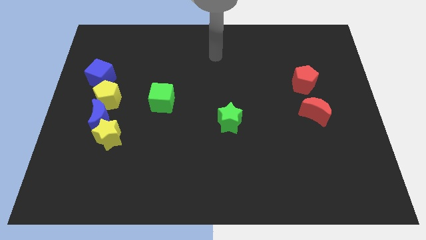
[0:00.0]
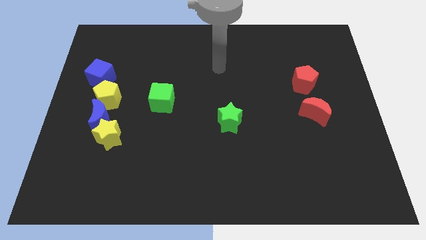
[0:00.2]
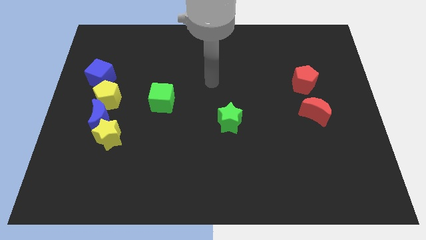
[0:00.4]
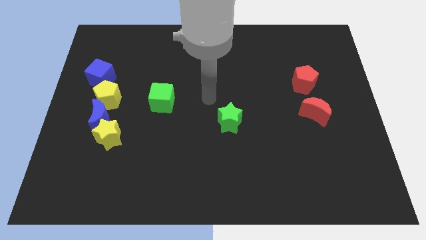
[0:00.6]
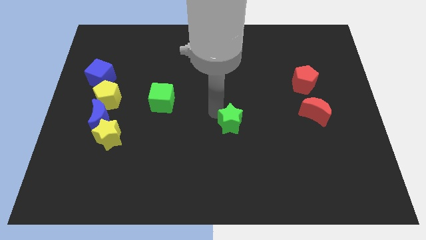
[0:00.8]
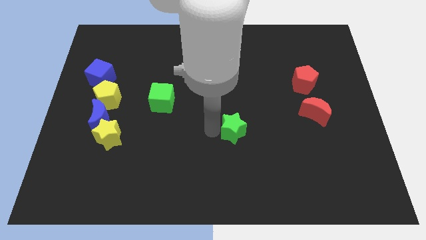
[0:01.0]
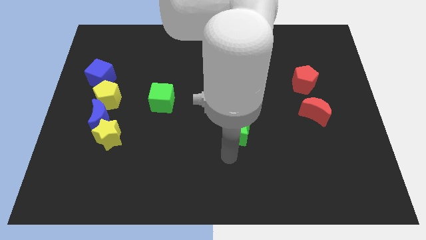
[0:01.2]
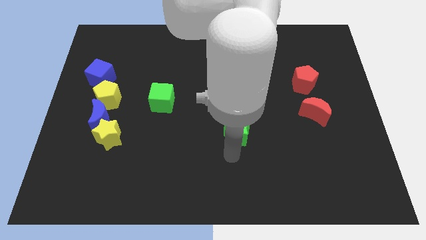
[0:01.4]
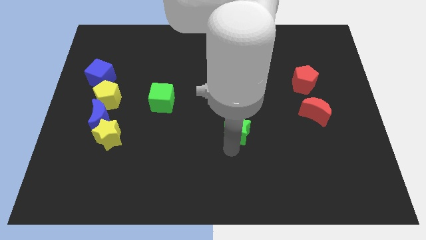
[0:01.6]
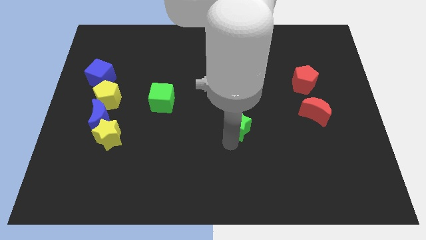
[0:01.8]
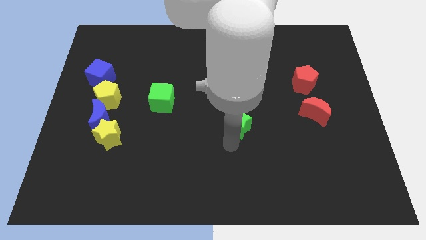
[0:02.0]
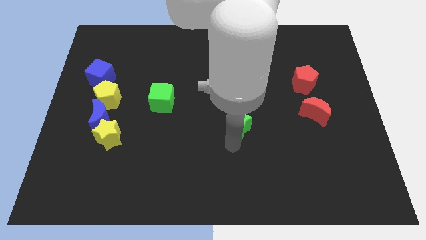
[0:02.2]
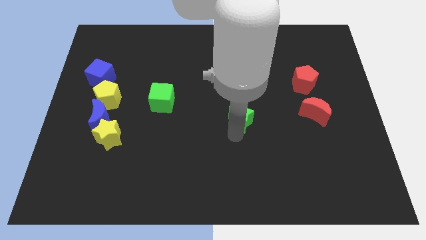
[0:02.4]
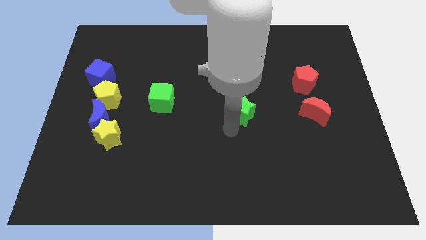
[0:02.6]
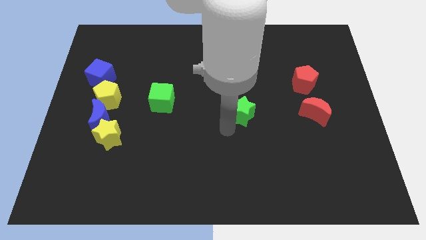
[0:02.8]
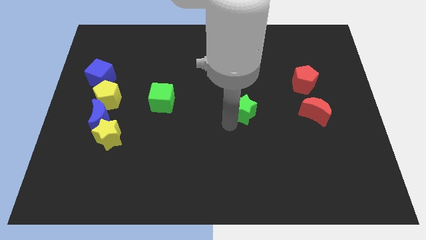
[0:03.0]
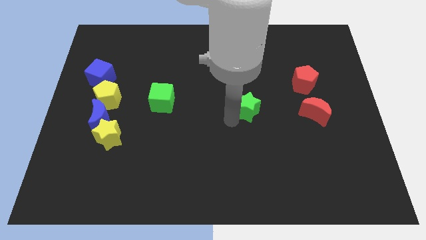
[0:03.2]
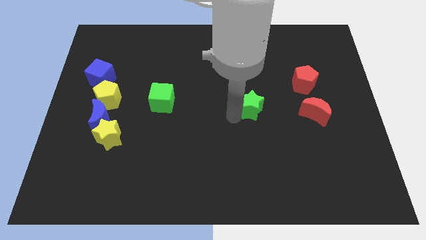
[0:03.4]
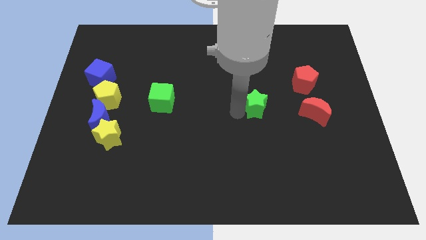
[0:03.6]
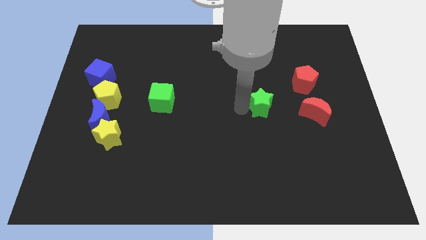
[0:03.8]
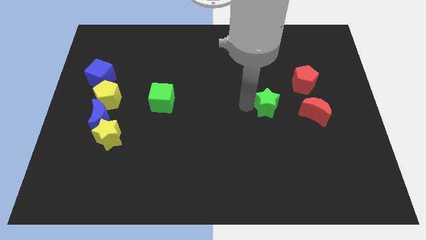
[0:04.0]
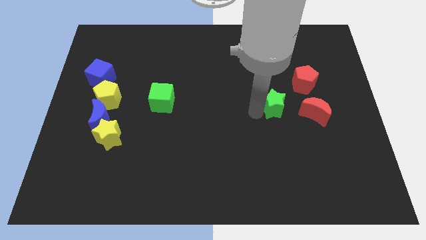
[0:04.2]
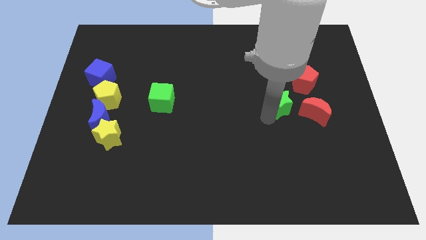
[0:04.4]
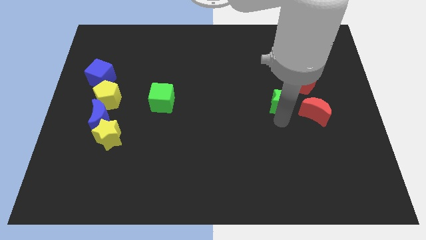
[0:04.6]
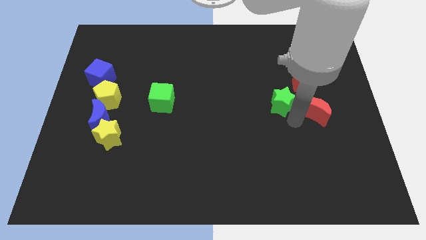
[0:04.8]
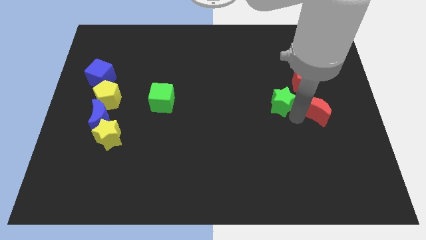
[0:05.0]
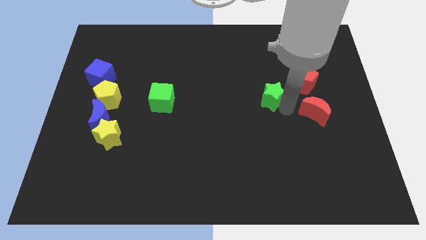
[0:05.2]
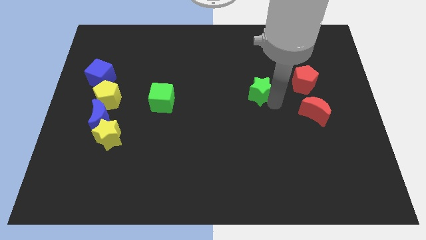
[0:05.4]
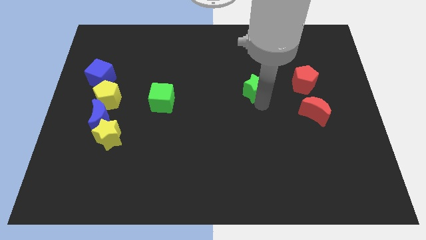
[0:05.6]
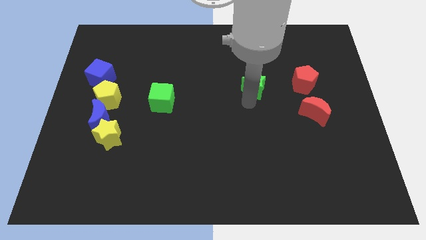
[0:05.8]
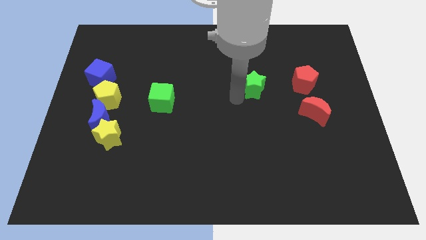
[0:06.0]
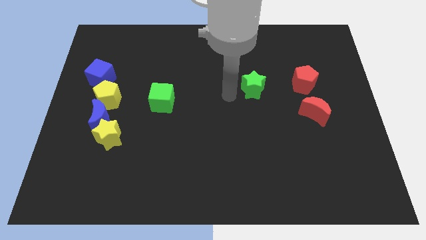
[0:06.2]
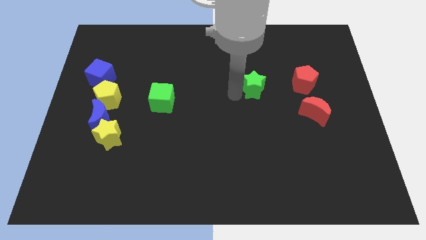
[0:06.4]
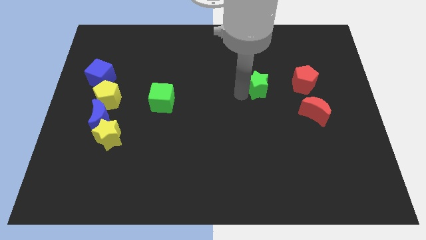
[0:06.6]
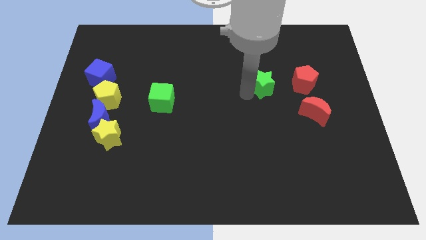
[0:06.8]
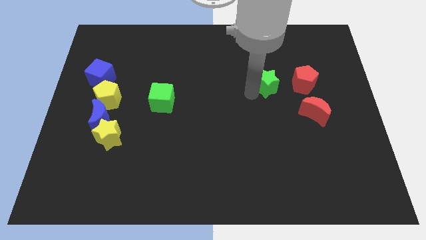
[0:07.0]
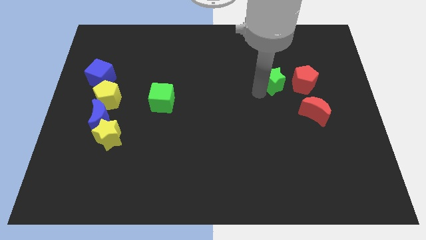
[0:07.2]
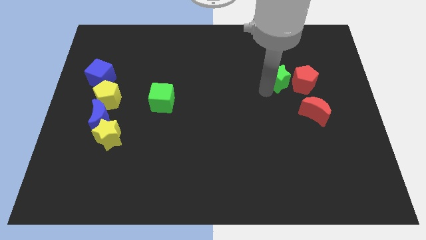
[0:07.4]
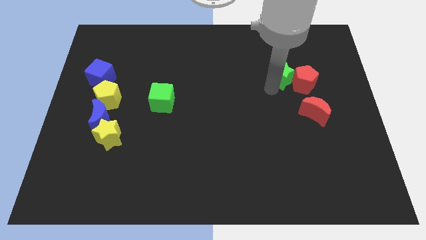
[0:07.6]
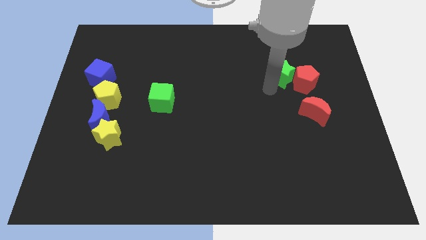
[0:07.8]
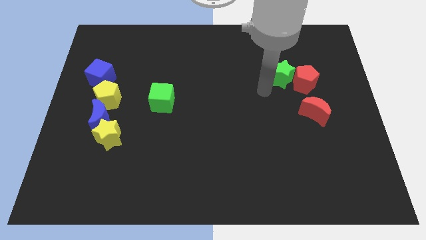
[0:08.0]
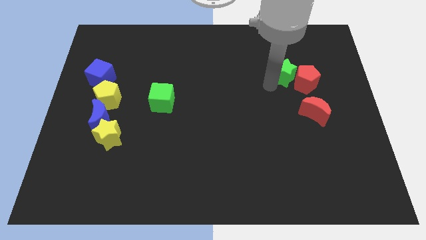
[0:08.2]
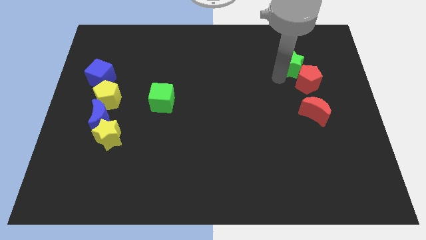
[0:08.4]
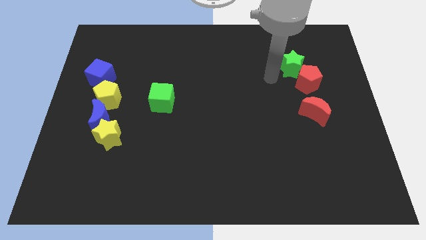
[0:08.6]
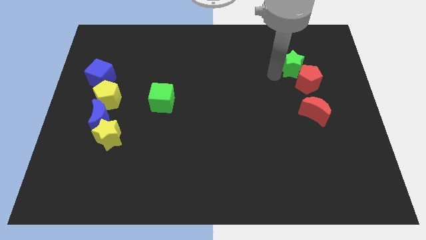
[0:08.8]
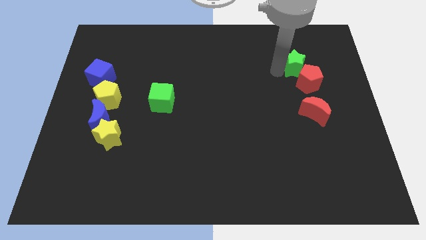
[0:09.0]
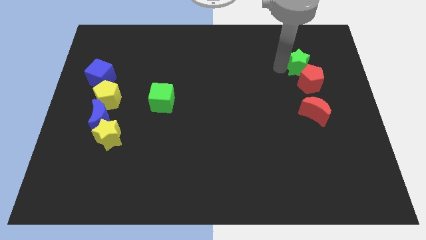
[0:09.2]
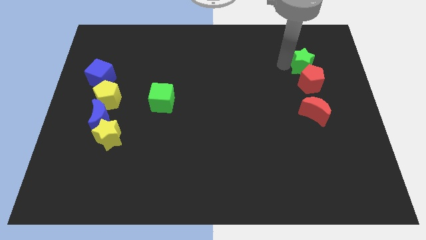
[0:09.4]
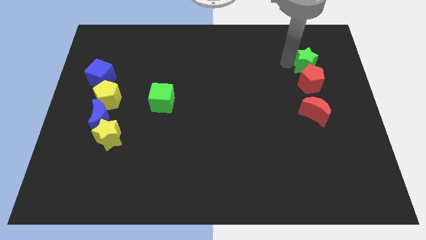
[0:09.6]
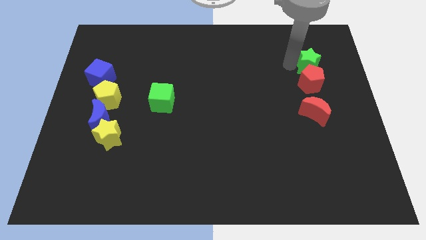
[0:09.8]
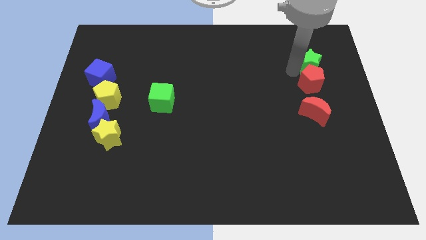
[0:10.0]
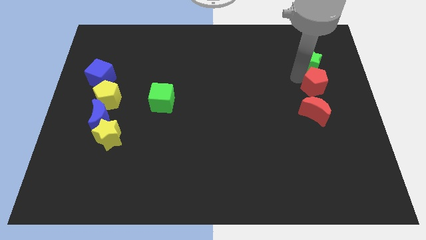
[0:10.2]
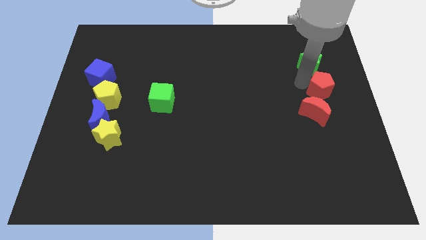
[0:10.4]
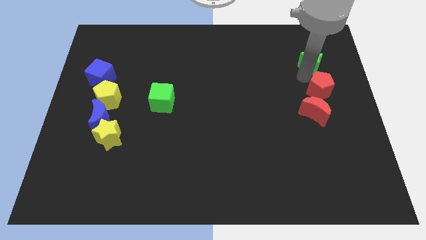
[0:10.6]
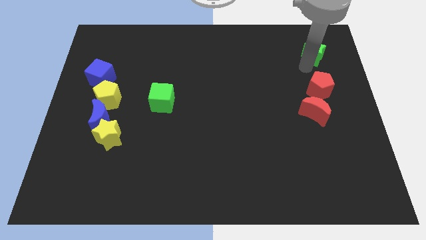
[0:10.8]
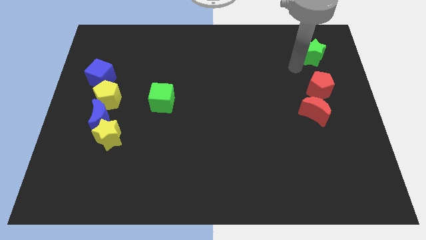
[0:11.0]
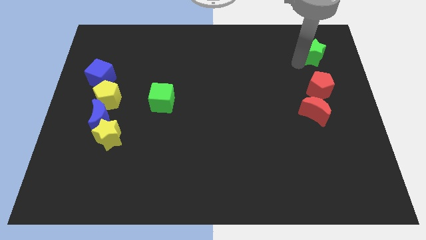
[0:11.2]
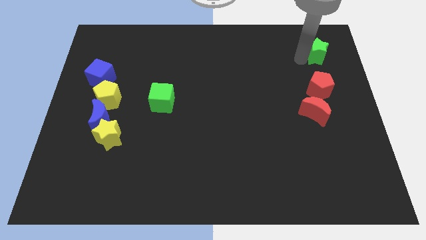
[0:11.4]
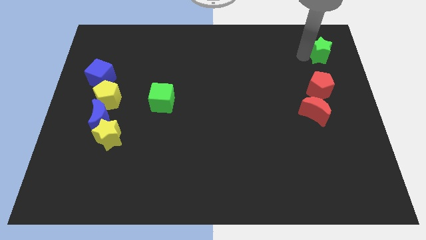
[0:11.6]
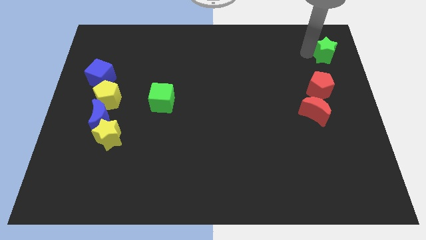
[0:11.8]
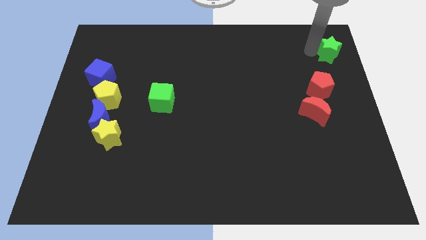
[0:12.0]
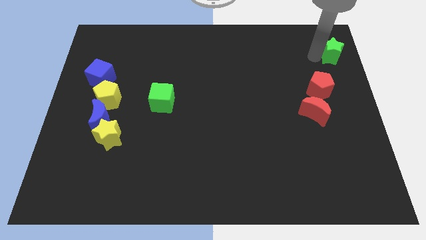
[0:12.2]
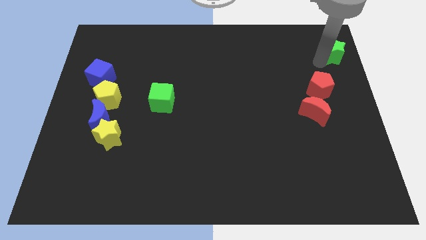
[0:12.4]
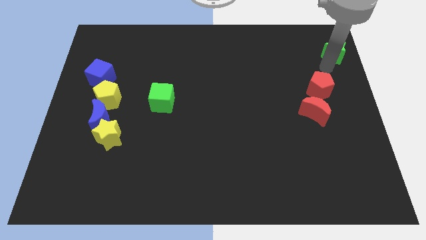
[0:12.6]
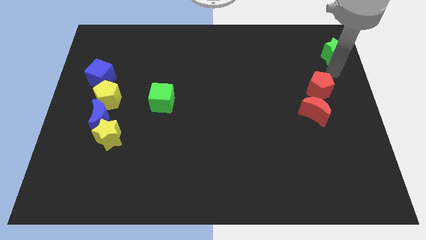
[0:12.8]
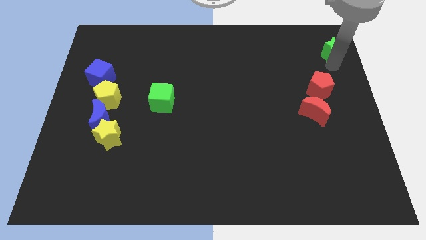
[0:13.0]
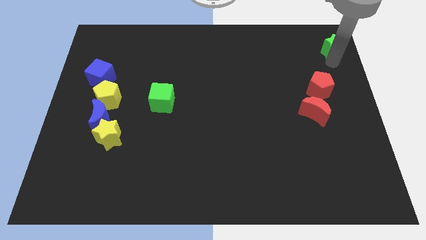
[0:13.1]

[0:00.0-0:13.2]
put the green star to the top right corner
